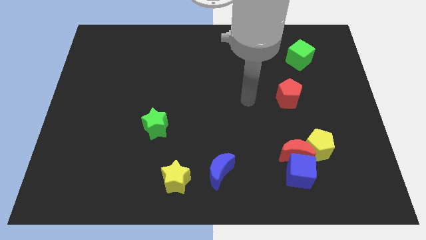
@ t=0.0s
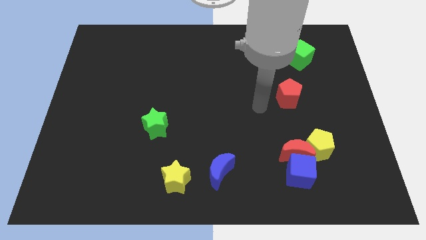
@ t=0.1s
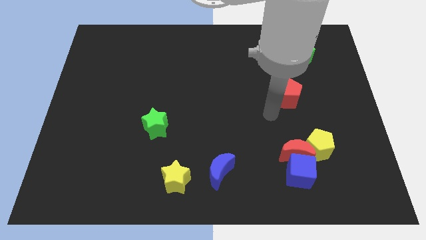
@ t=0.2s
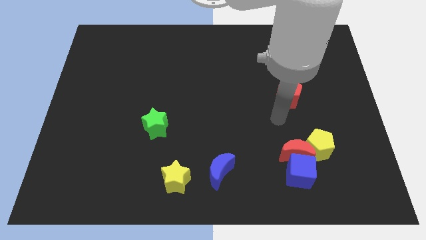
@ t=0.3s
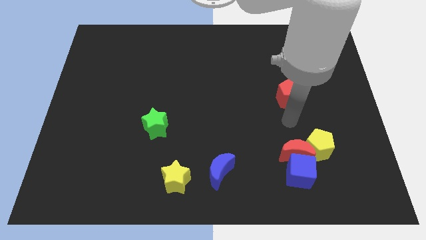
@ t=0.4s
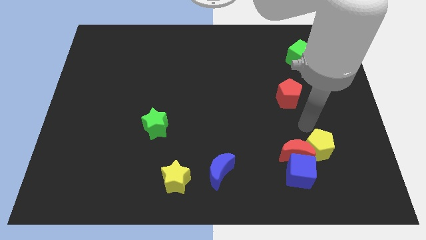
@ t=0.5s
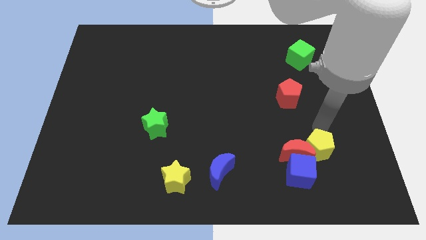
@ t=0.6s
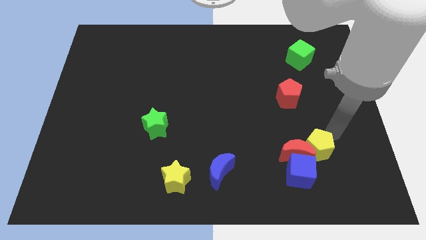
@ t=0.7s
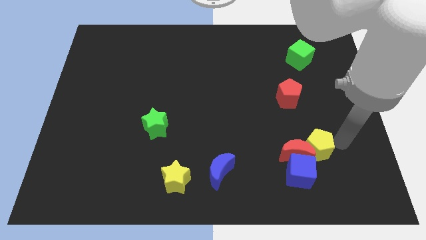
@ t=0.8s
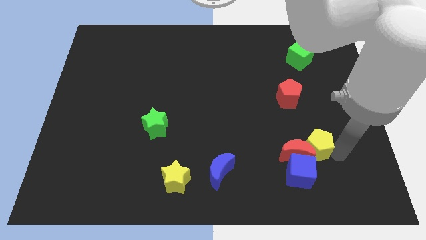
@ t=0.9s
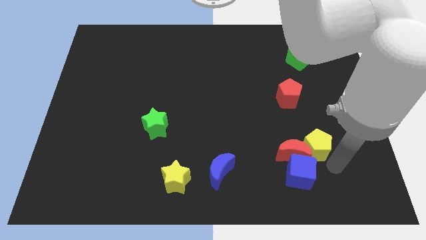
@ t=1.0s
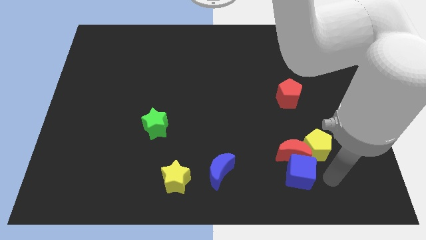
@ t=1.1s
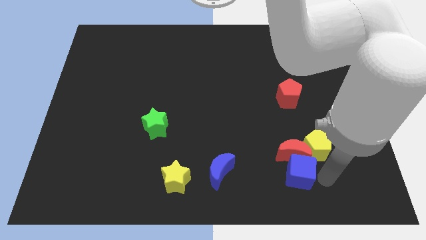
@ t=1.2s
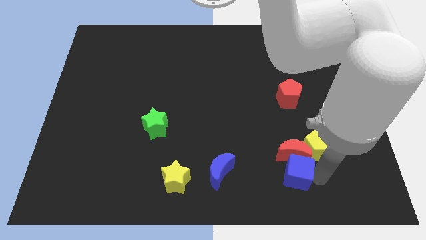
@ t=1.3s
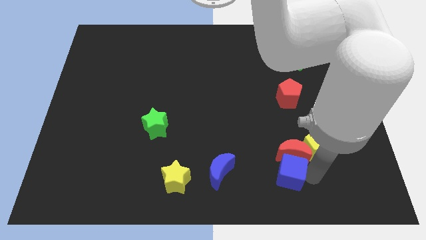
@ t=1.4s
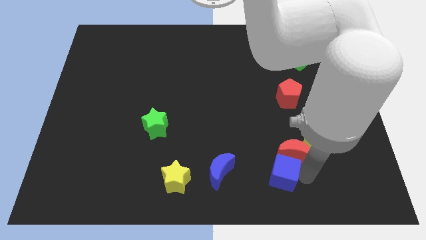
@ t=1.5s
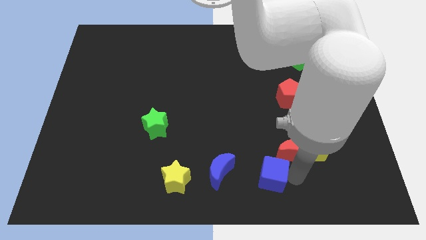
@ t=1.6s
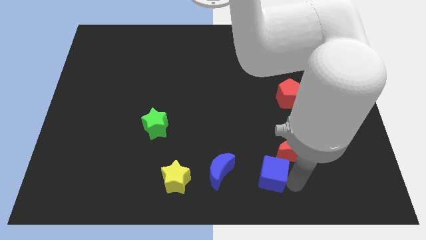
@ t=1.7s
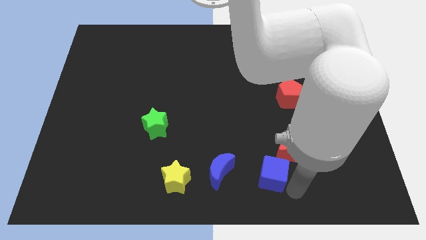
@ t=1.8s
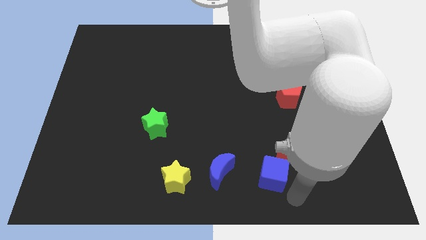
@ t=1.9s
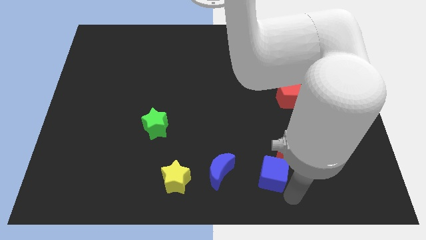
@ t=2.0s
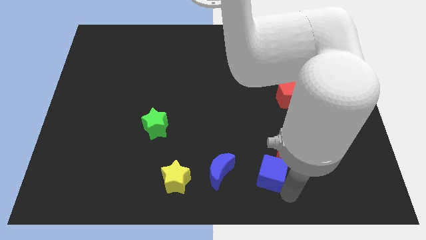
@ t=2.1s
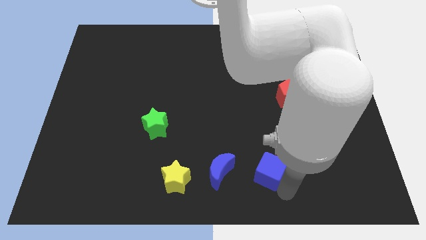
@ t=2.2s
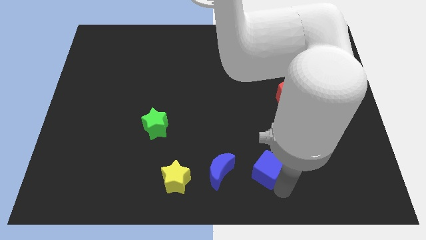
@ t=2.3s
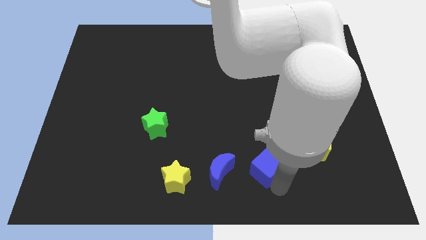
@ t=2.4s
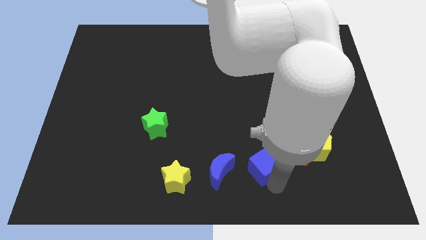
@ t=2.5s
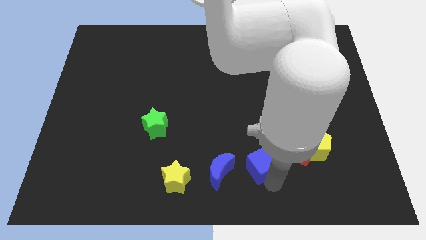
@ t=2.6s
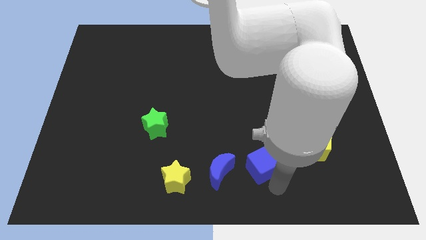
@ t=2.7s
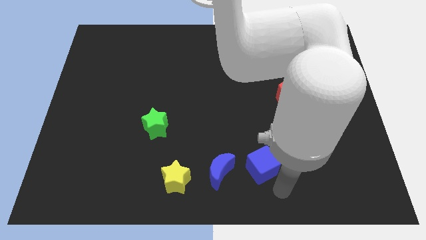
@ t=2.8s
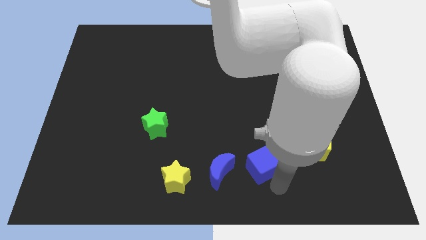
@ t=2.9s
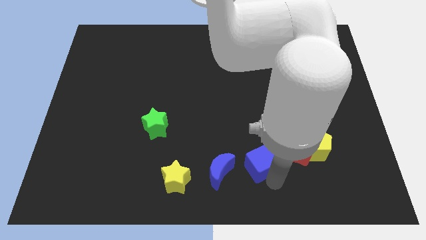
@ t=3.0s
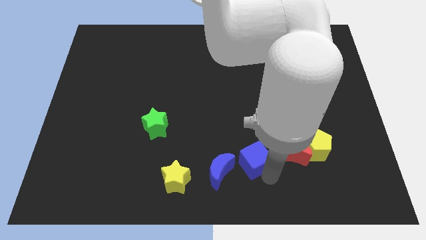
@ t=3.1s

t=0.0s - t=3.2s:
slightly slide the blue cube upwards and then left

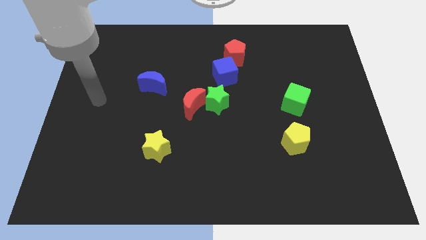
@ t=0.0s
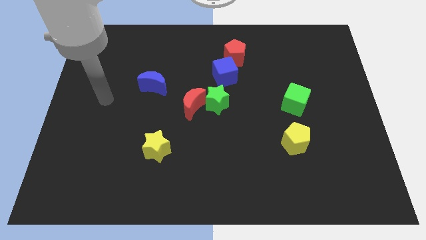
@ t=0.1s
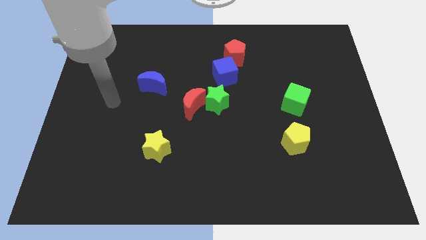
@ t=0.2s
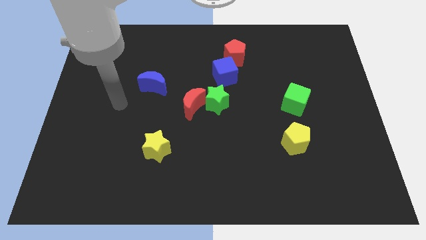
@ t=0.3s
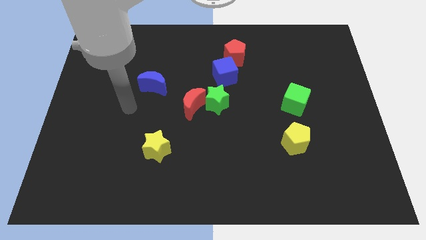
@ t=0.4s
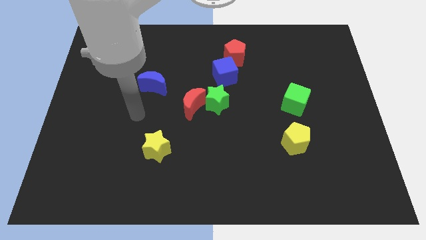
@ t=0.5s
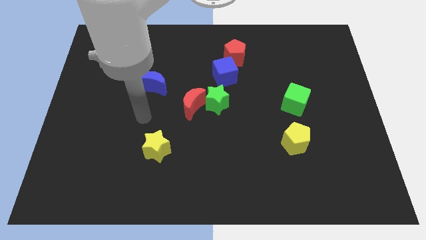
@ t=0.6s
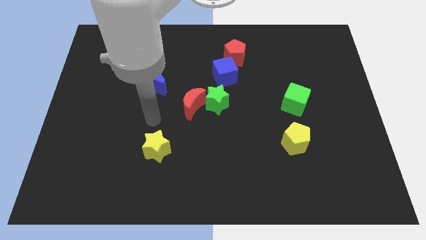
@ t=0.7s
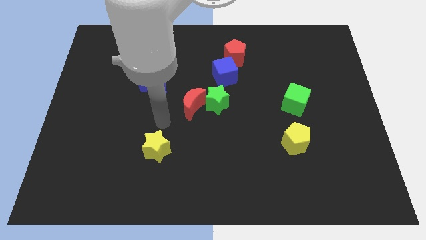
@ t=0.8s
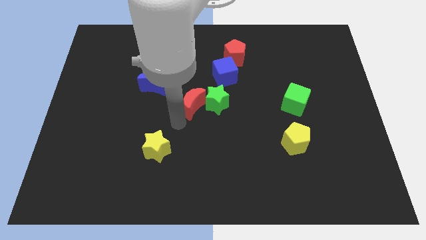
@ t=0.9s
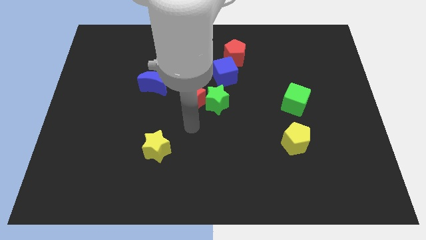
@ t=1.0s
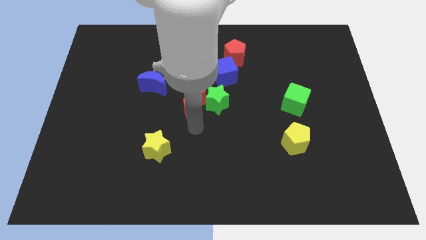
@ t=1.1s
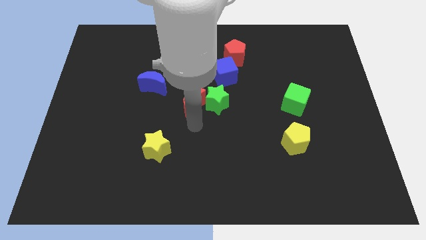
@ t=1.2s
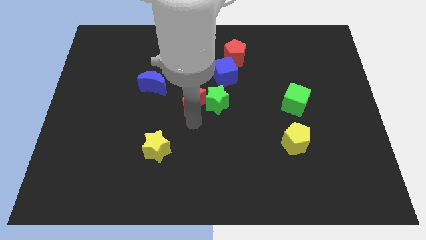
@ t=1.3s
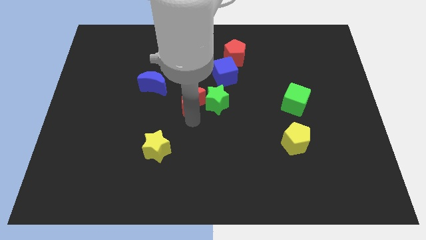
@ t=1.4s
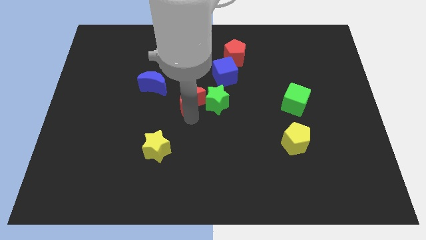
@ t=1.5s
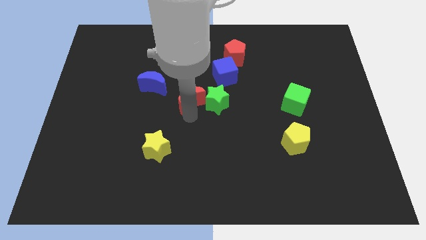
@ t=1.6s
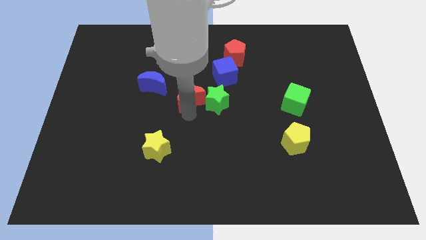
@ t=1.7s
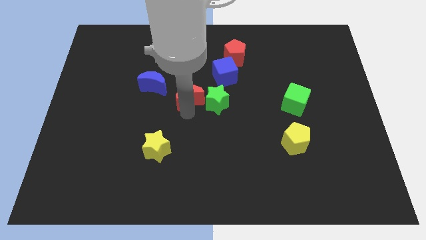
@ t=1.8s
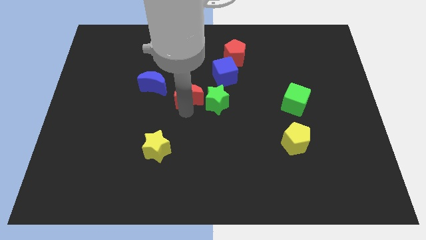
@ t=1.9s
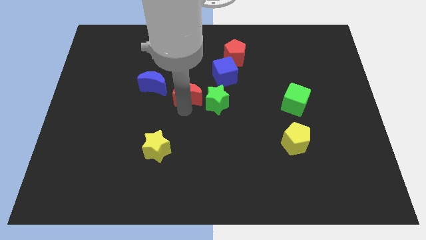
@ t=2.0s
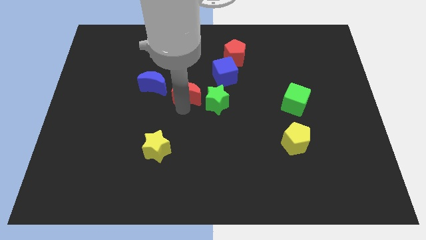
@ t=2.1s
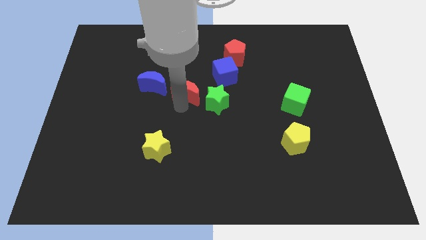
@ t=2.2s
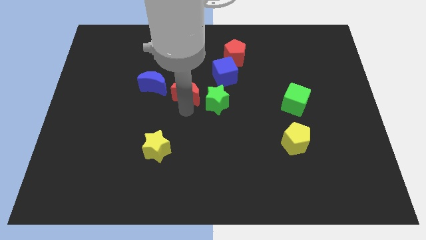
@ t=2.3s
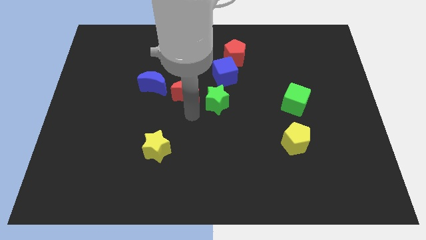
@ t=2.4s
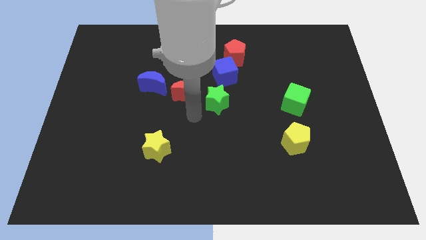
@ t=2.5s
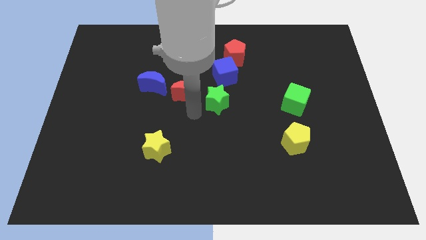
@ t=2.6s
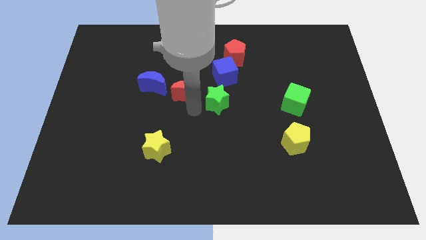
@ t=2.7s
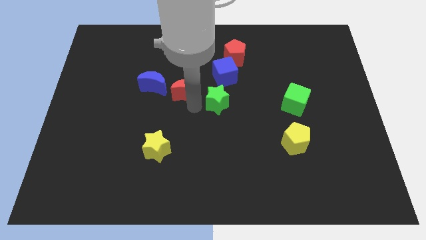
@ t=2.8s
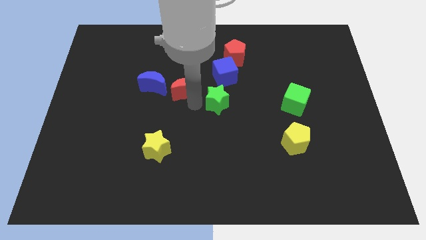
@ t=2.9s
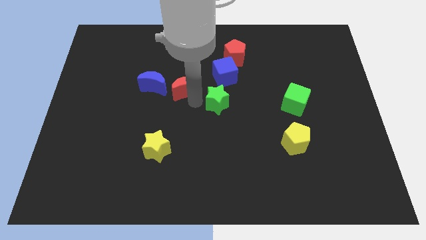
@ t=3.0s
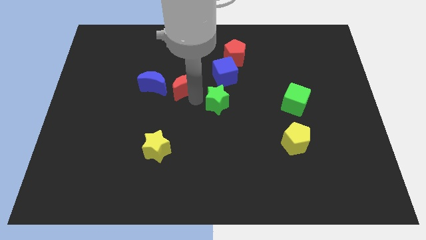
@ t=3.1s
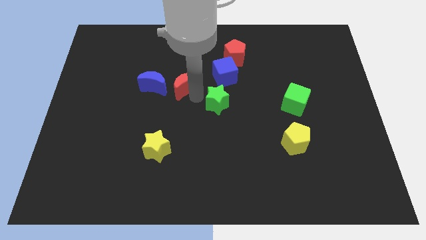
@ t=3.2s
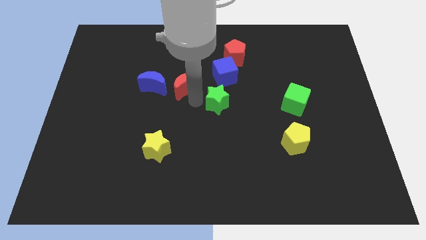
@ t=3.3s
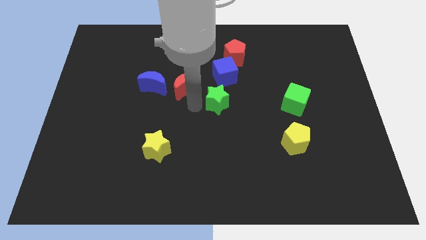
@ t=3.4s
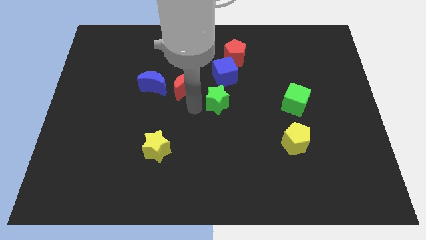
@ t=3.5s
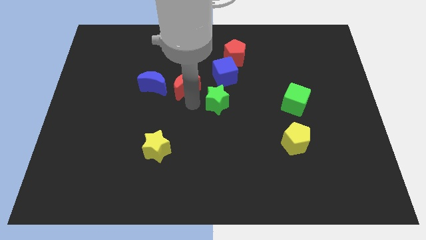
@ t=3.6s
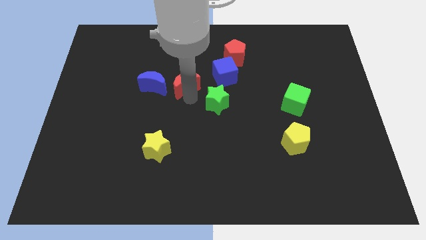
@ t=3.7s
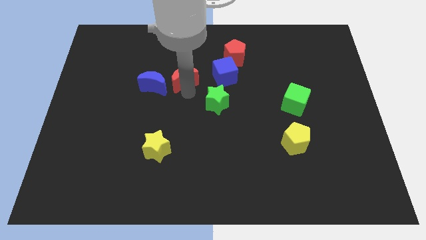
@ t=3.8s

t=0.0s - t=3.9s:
slightly push the red moon up and then to the left

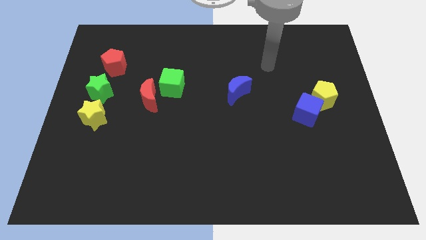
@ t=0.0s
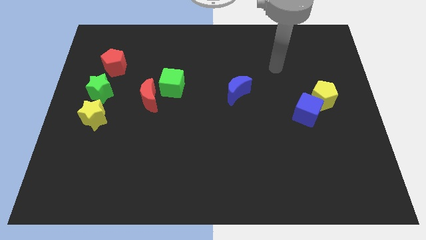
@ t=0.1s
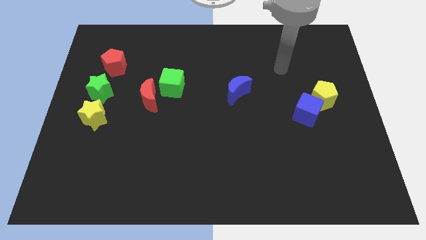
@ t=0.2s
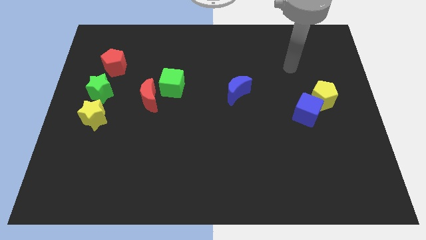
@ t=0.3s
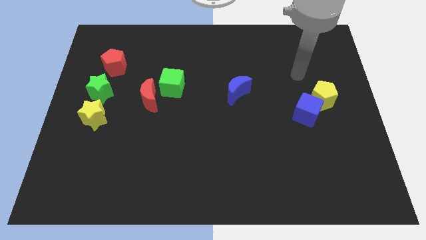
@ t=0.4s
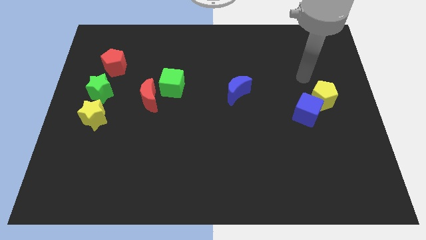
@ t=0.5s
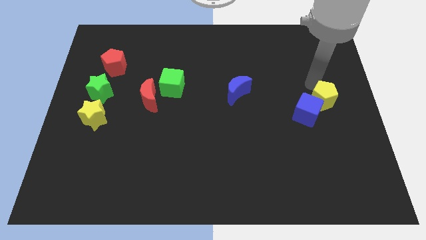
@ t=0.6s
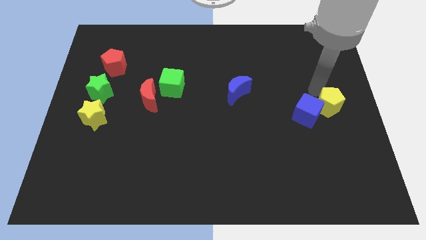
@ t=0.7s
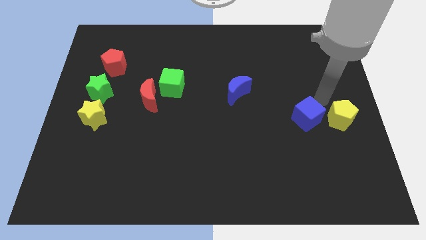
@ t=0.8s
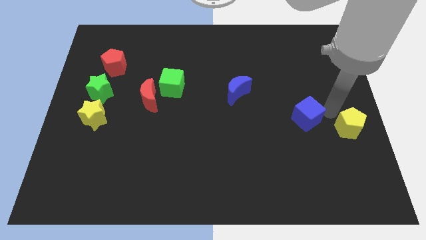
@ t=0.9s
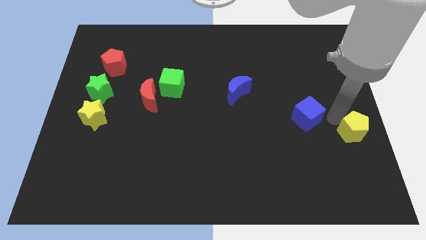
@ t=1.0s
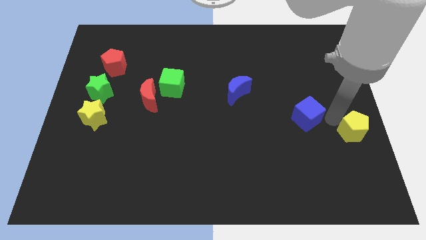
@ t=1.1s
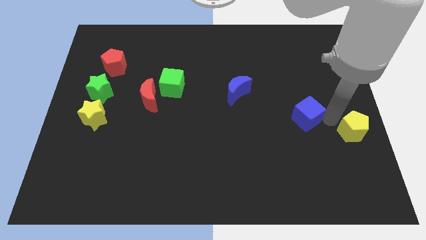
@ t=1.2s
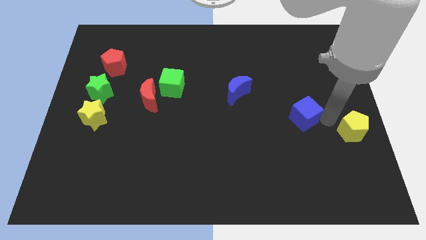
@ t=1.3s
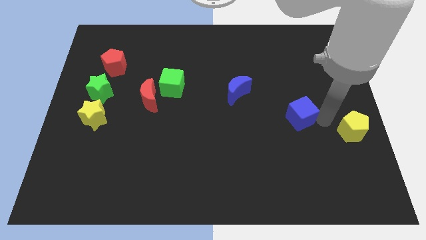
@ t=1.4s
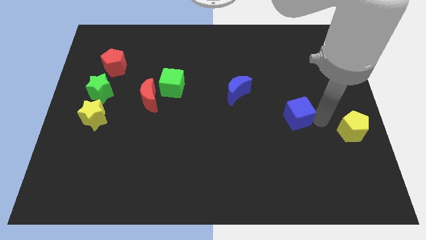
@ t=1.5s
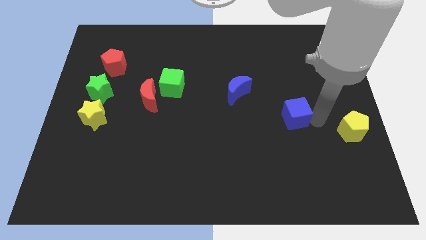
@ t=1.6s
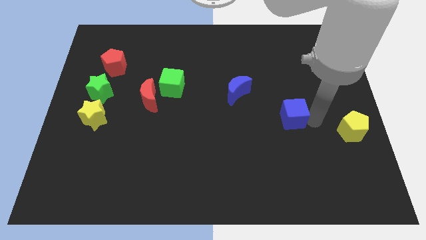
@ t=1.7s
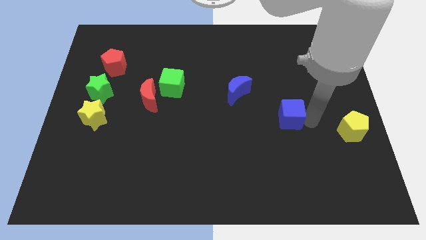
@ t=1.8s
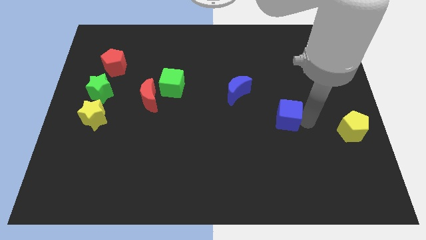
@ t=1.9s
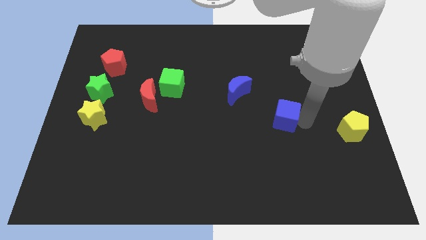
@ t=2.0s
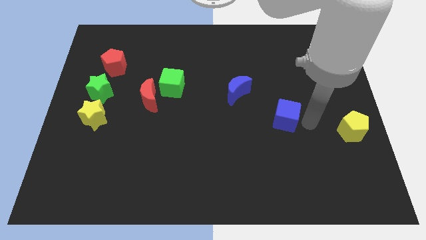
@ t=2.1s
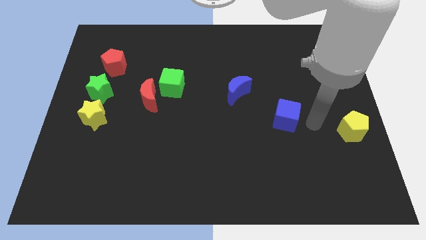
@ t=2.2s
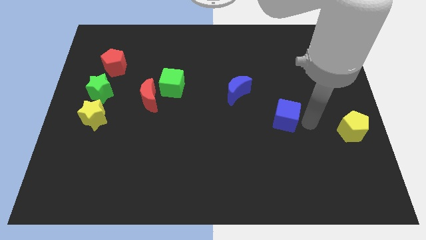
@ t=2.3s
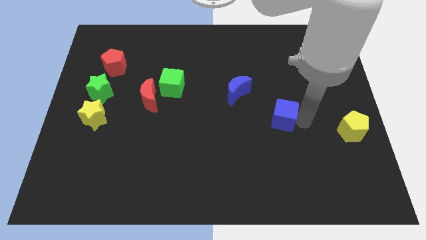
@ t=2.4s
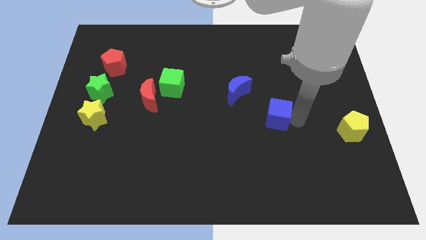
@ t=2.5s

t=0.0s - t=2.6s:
push the blue cube a little bit to the left
